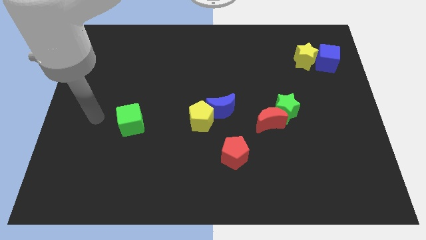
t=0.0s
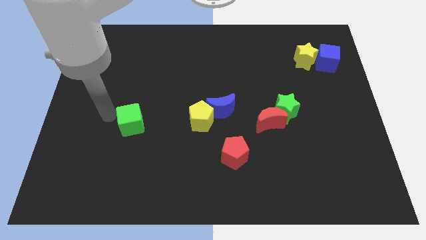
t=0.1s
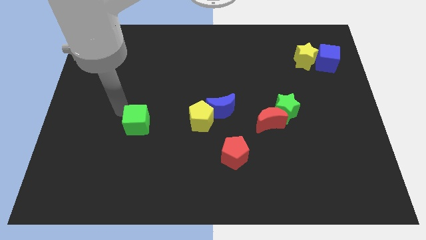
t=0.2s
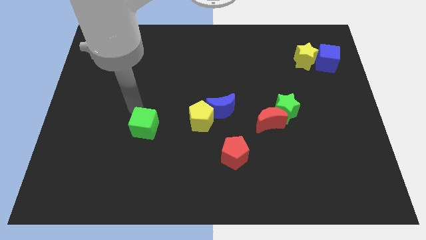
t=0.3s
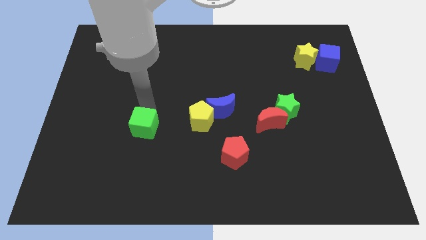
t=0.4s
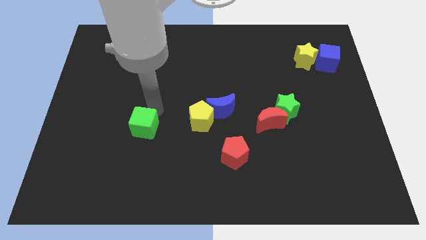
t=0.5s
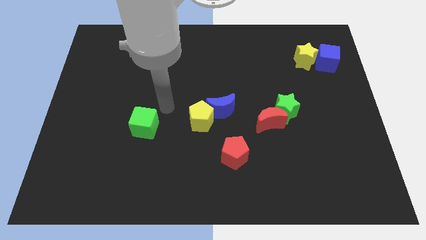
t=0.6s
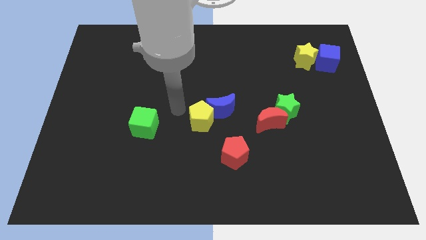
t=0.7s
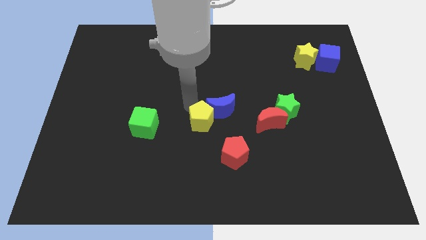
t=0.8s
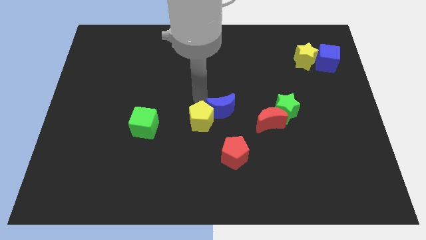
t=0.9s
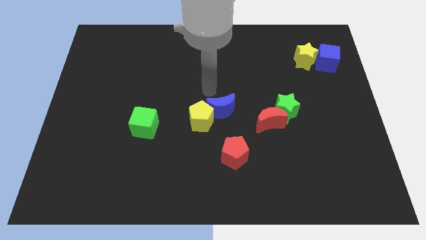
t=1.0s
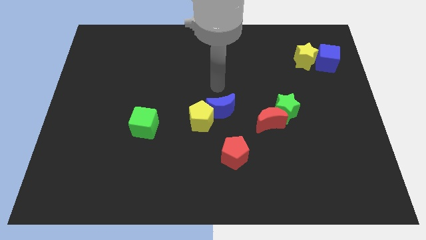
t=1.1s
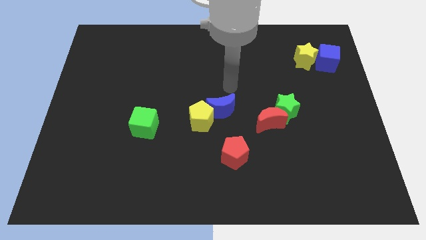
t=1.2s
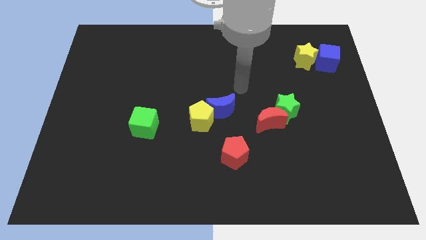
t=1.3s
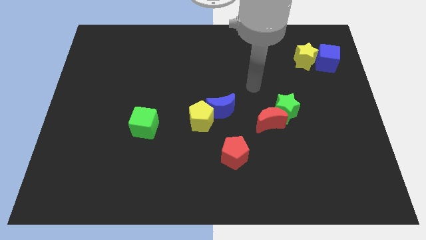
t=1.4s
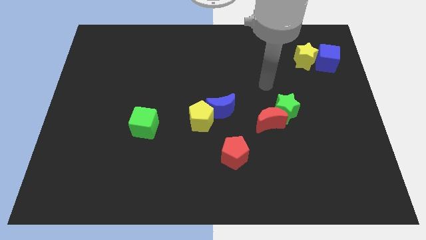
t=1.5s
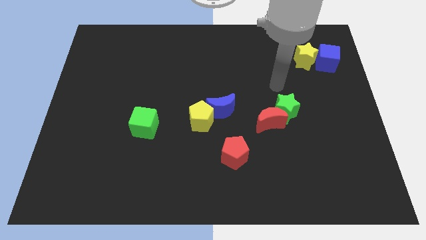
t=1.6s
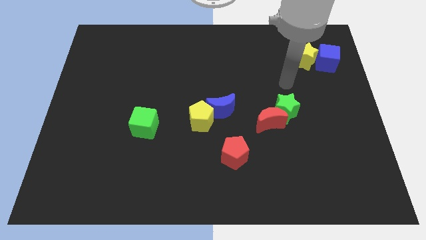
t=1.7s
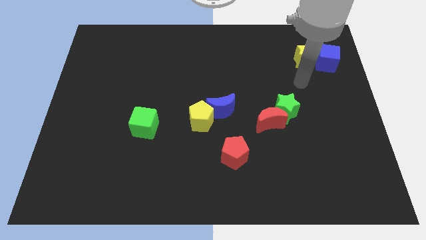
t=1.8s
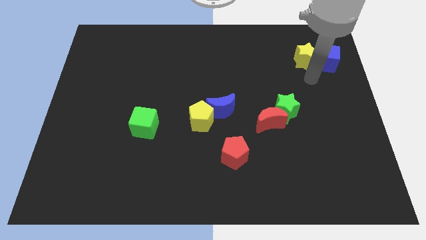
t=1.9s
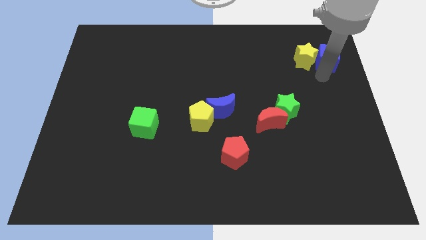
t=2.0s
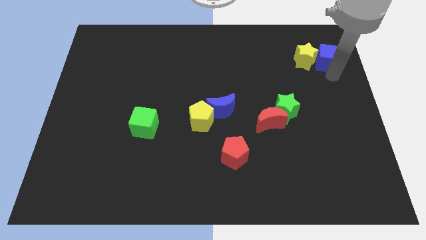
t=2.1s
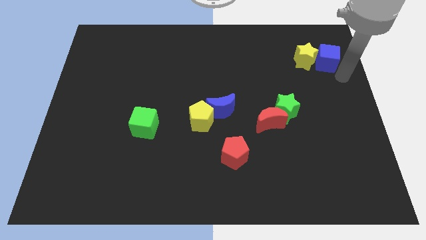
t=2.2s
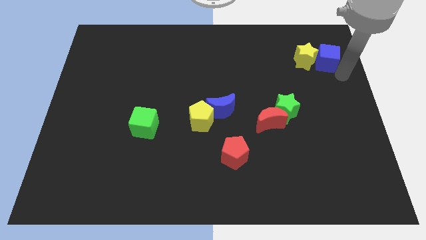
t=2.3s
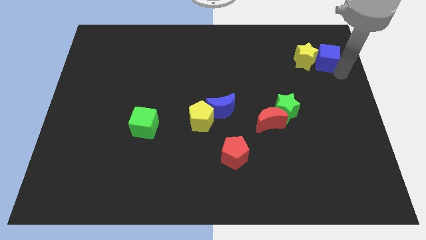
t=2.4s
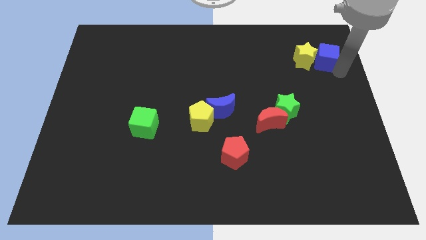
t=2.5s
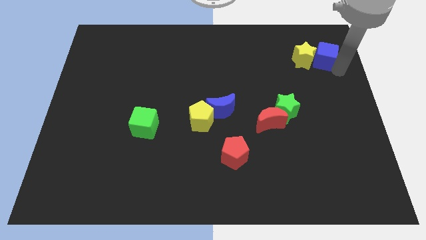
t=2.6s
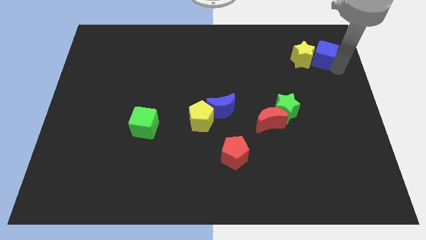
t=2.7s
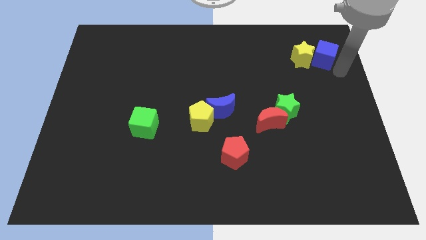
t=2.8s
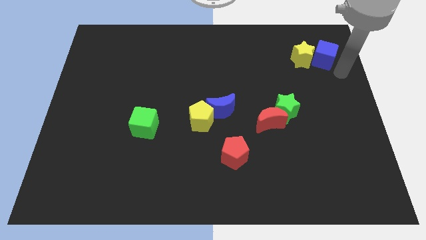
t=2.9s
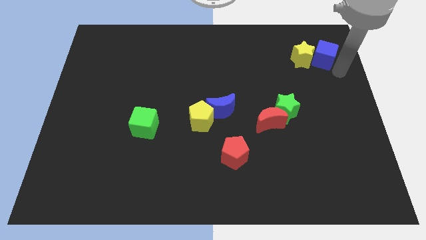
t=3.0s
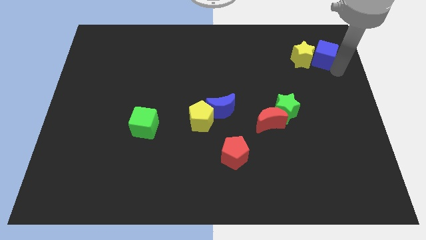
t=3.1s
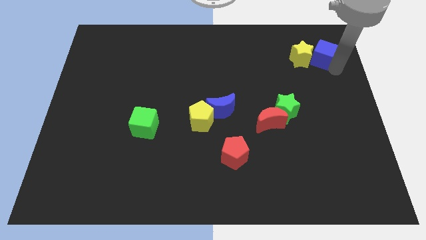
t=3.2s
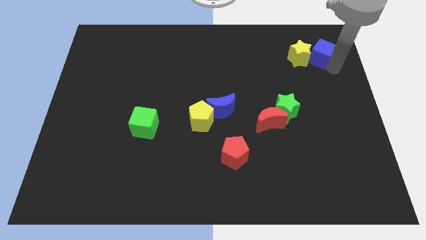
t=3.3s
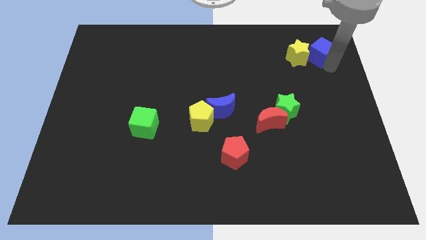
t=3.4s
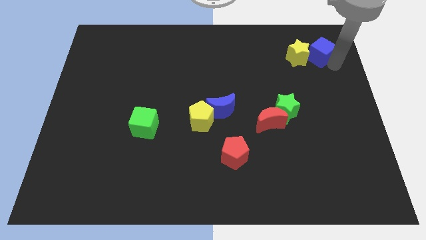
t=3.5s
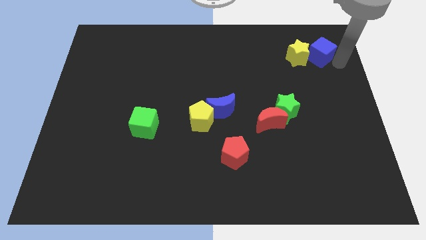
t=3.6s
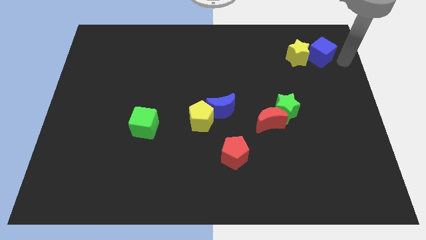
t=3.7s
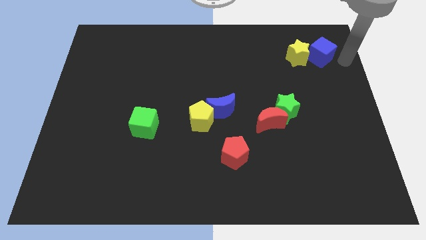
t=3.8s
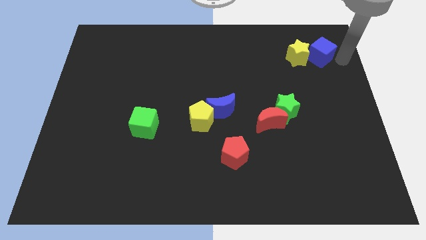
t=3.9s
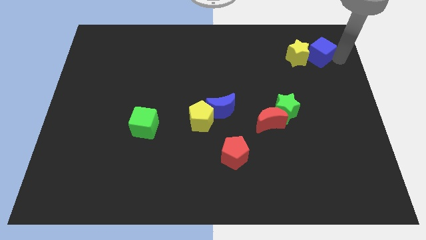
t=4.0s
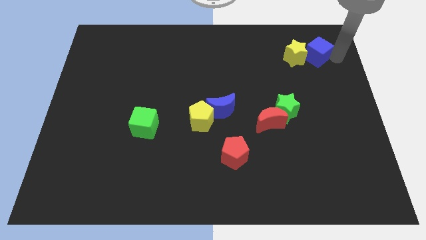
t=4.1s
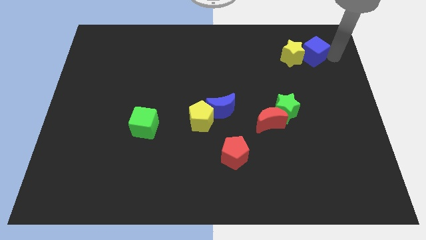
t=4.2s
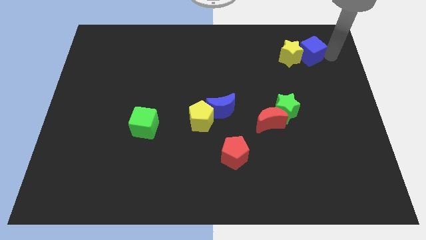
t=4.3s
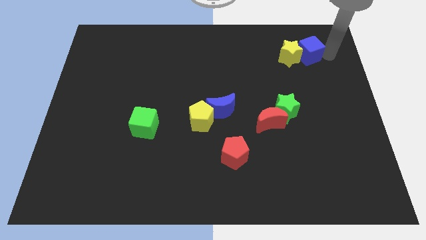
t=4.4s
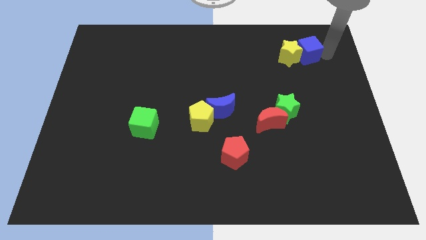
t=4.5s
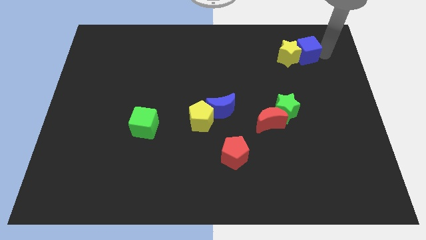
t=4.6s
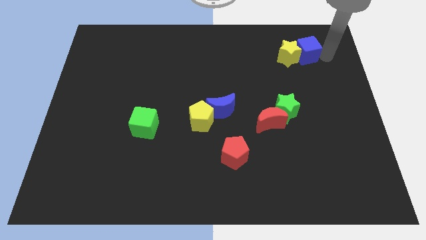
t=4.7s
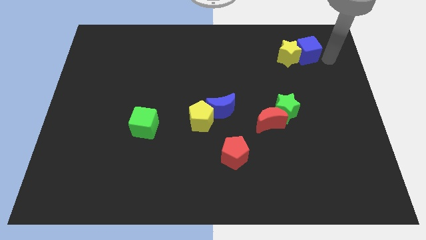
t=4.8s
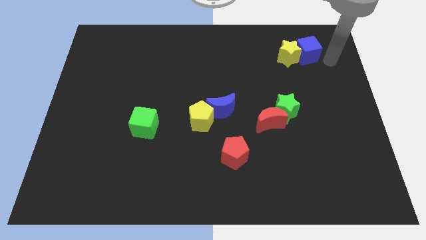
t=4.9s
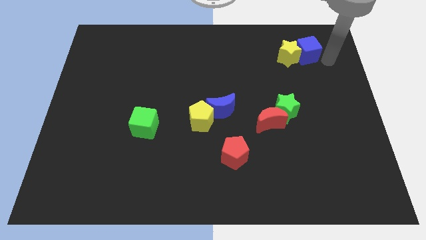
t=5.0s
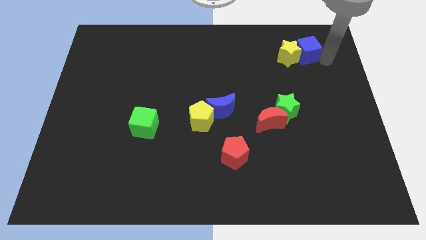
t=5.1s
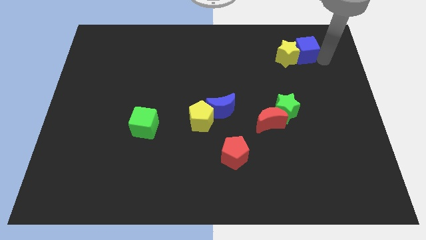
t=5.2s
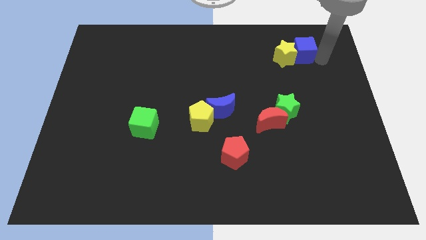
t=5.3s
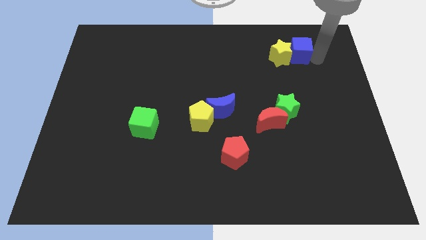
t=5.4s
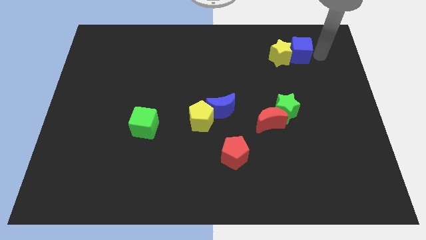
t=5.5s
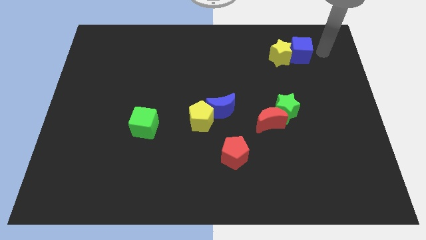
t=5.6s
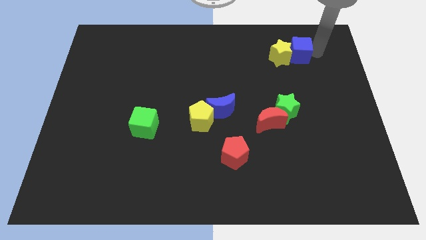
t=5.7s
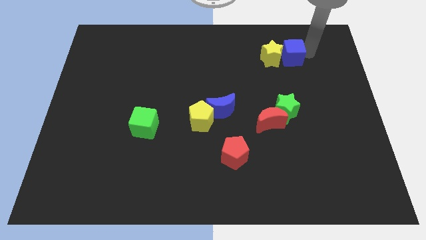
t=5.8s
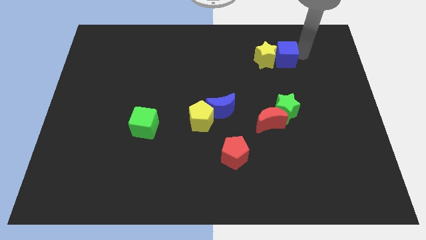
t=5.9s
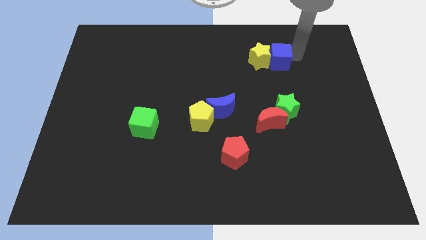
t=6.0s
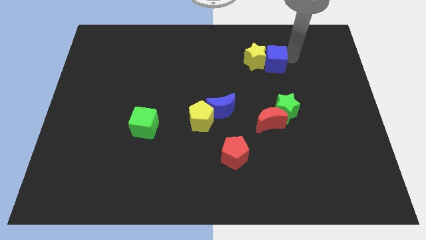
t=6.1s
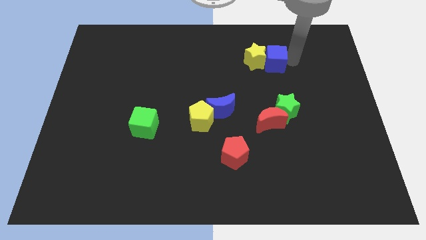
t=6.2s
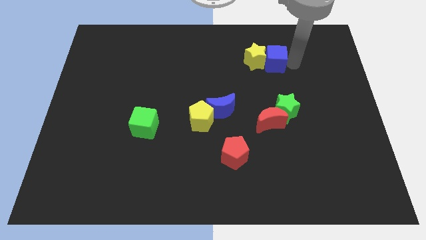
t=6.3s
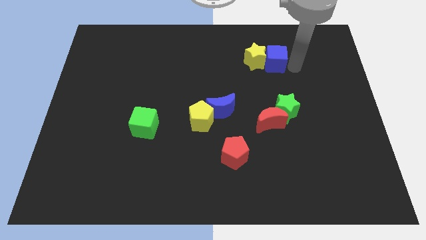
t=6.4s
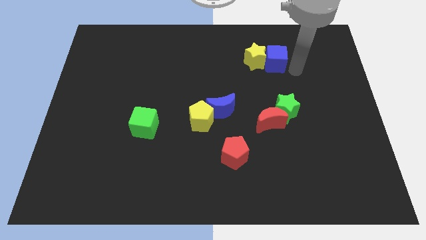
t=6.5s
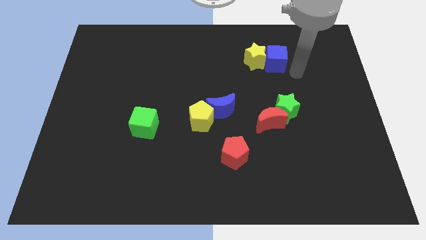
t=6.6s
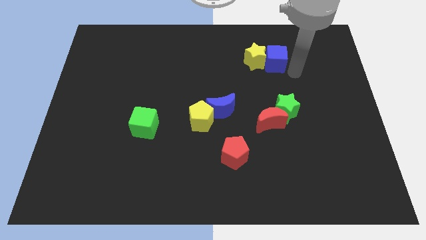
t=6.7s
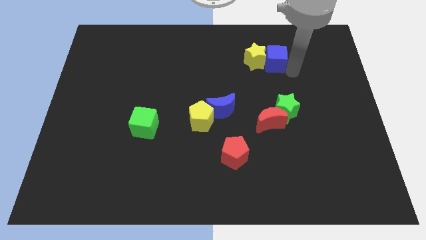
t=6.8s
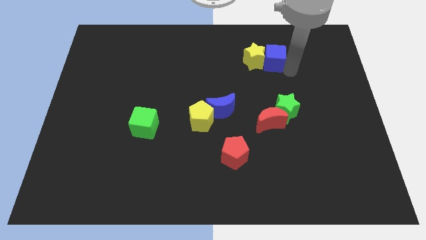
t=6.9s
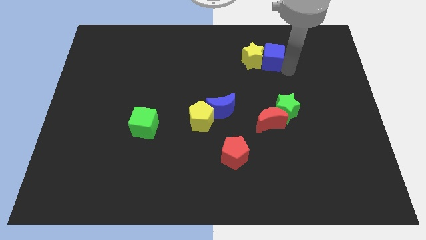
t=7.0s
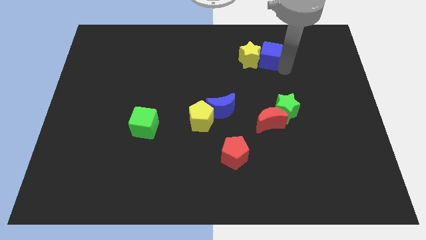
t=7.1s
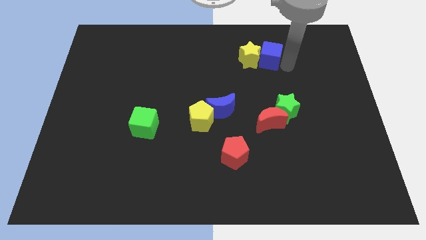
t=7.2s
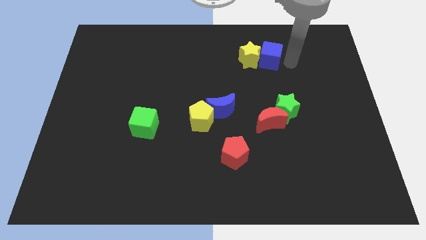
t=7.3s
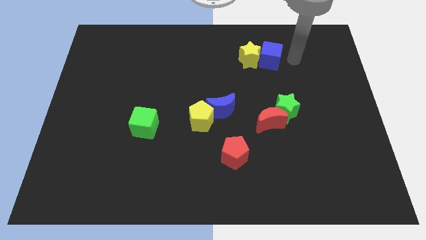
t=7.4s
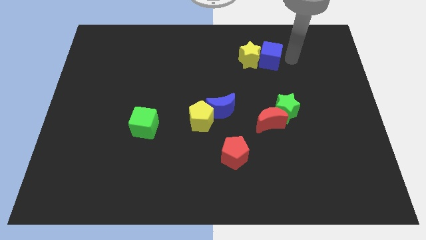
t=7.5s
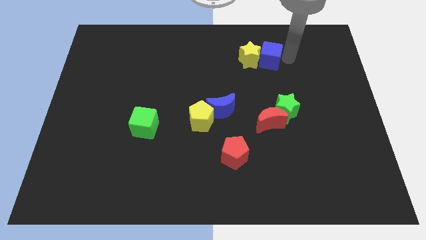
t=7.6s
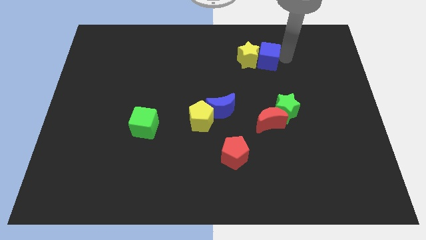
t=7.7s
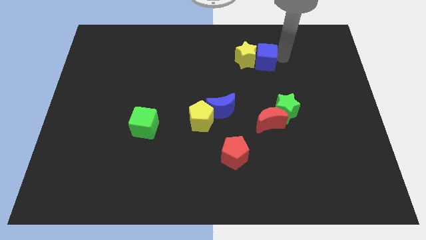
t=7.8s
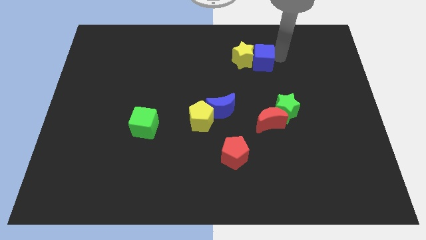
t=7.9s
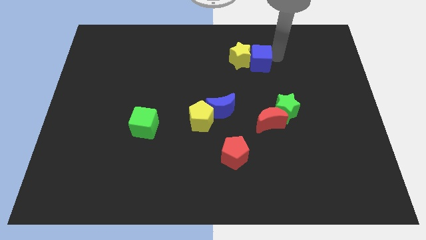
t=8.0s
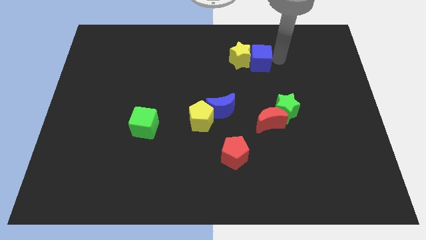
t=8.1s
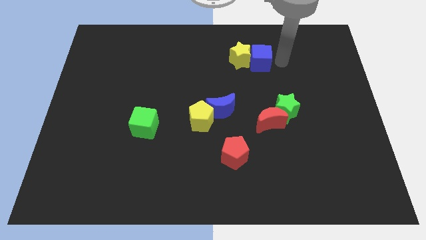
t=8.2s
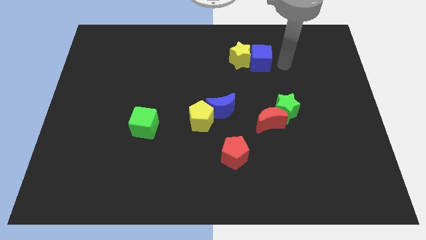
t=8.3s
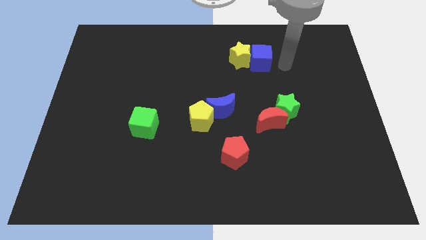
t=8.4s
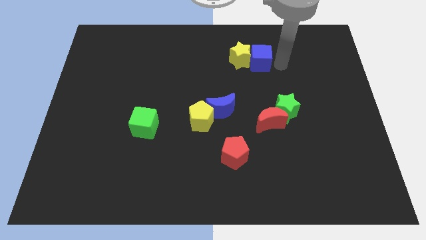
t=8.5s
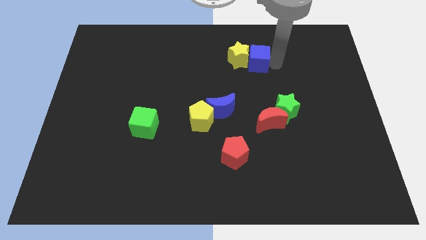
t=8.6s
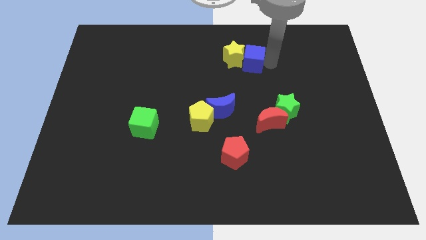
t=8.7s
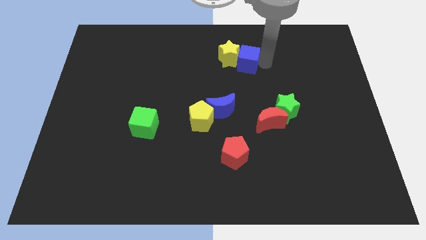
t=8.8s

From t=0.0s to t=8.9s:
slide the blue cube to the left
